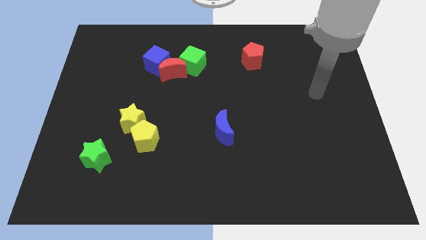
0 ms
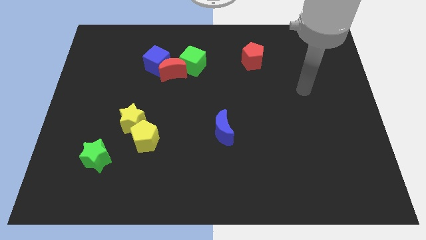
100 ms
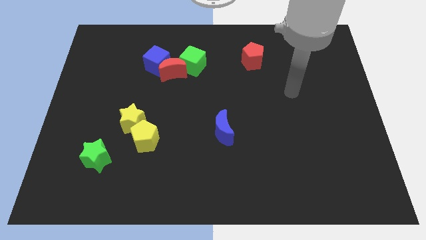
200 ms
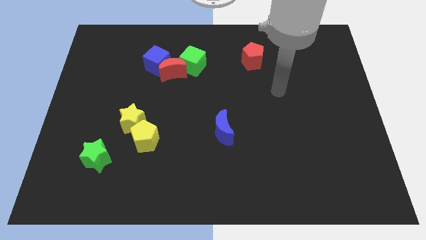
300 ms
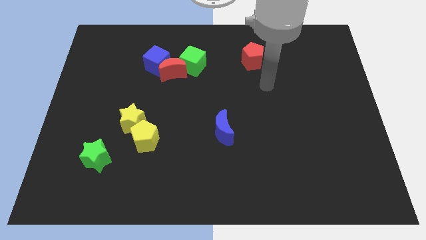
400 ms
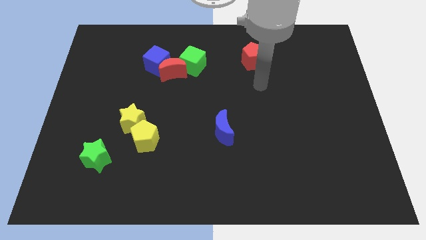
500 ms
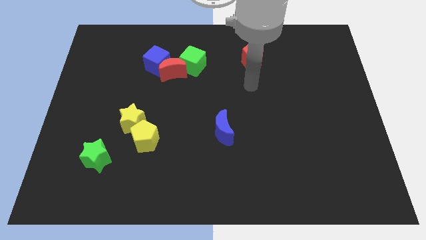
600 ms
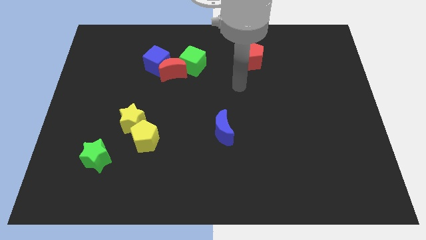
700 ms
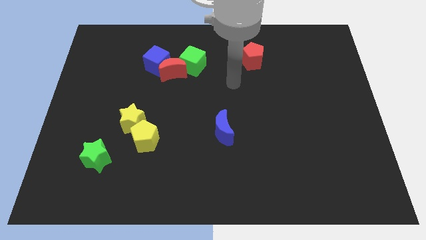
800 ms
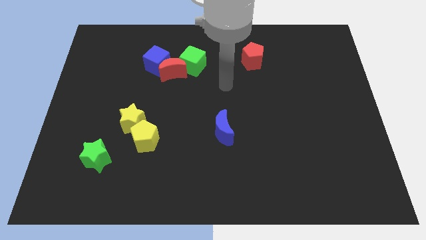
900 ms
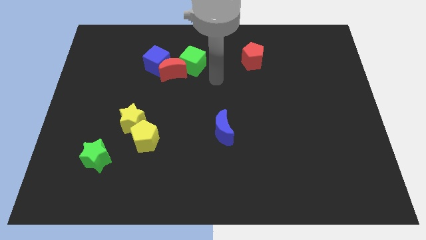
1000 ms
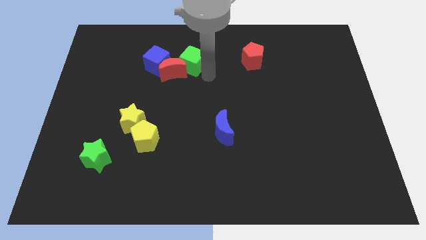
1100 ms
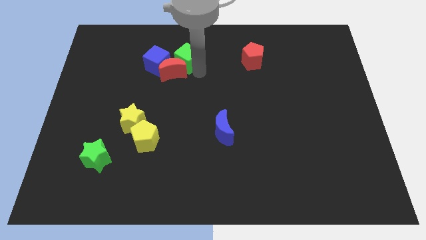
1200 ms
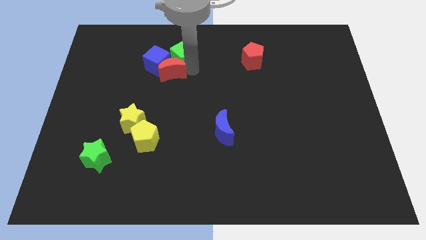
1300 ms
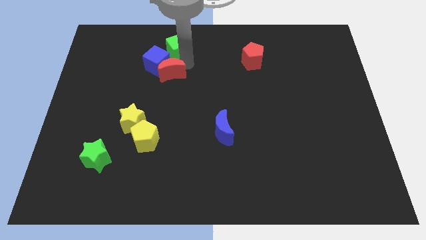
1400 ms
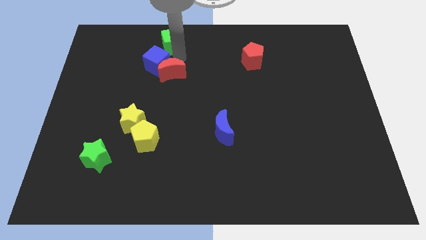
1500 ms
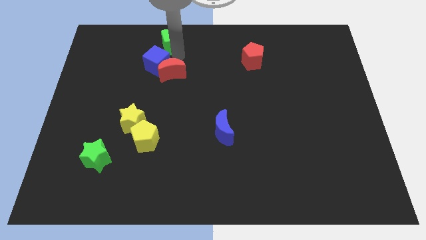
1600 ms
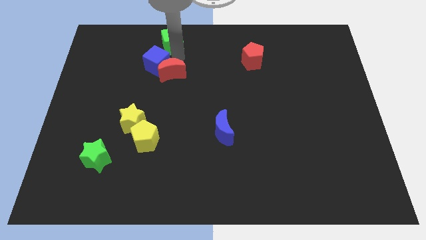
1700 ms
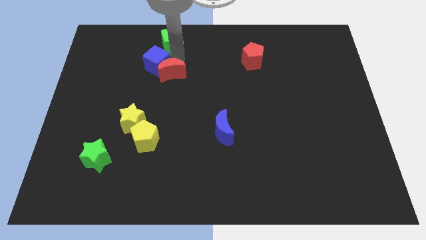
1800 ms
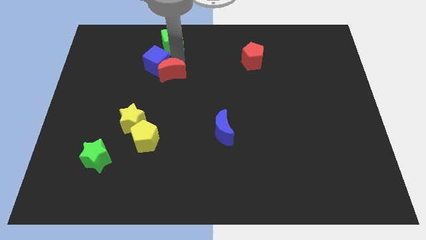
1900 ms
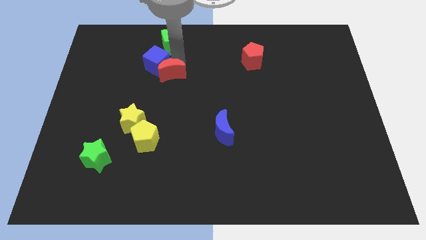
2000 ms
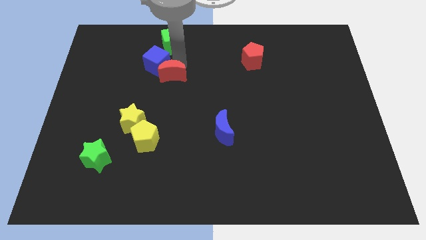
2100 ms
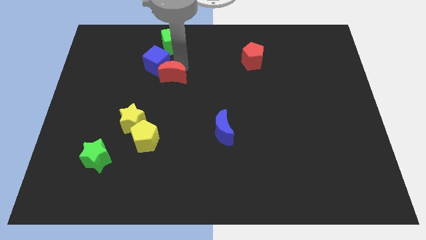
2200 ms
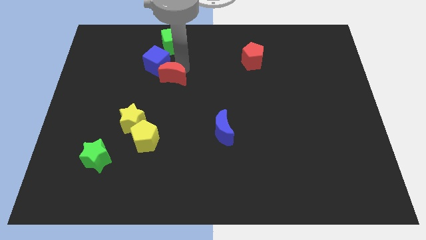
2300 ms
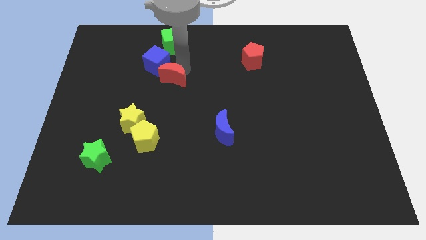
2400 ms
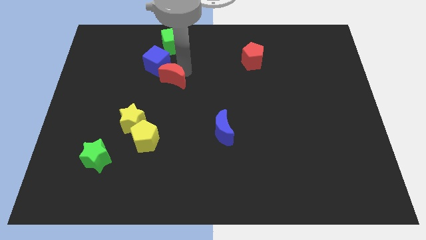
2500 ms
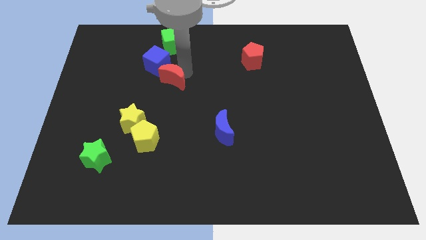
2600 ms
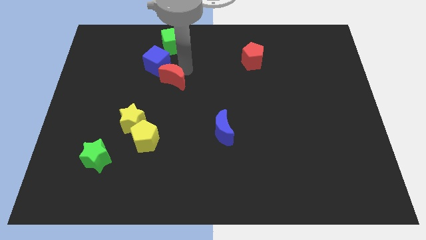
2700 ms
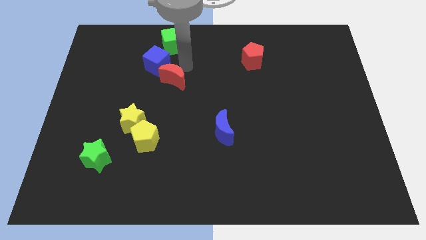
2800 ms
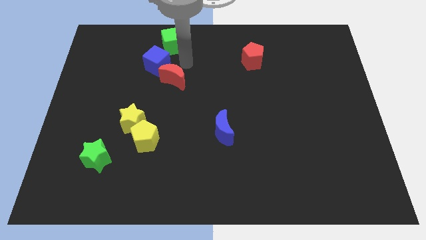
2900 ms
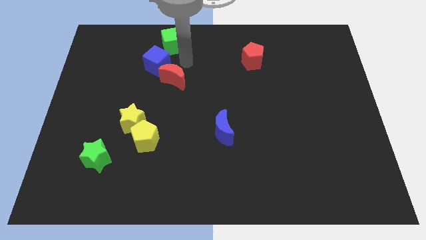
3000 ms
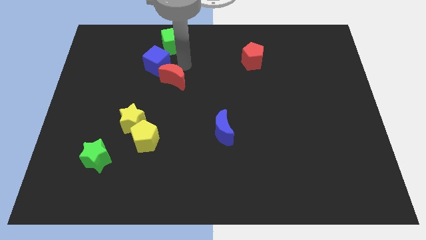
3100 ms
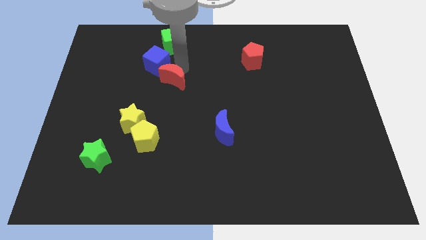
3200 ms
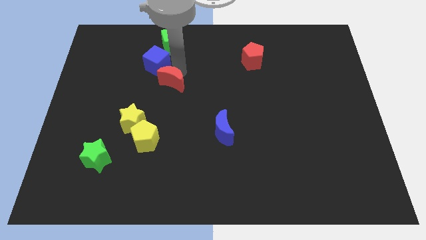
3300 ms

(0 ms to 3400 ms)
separate the red moon from the blue cube and green cube

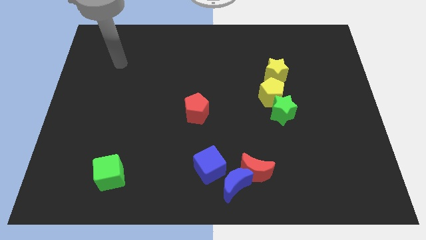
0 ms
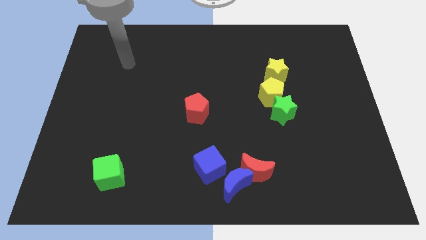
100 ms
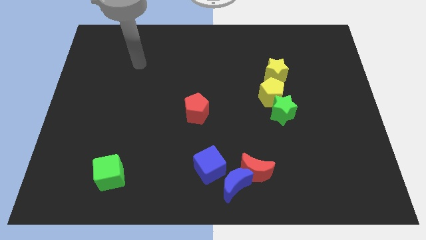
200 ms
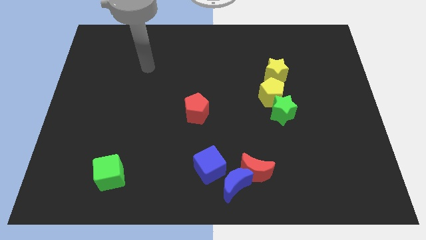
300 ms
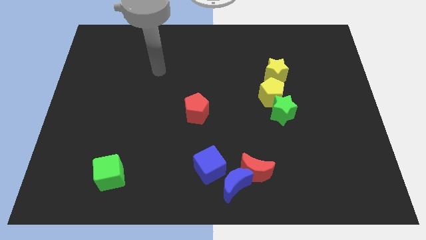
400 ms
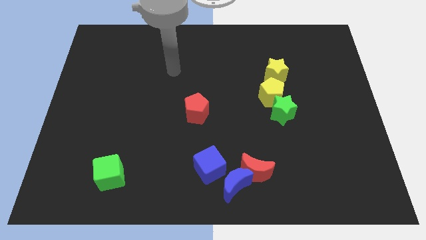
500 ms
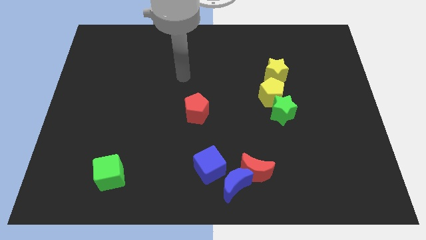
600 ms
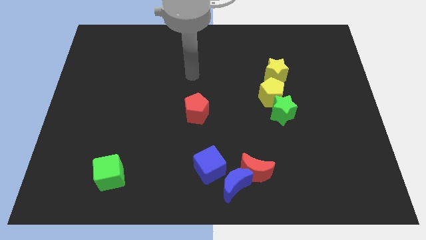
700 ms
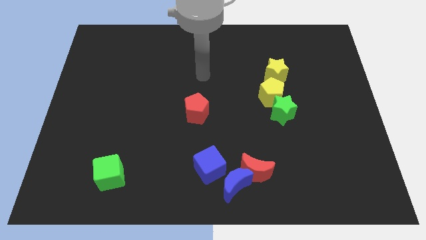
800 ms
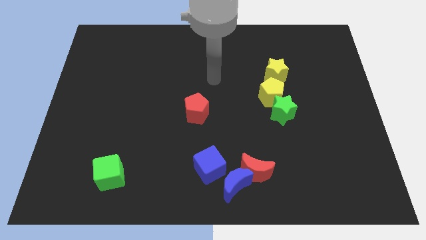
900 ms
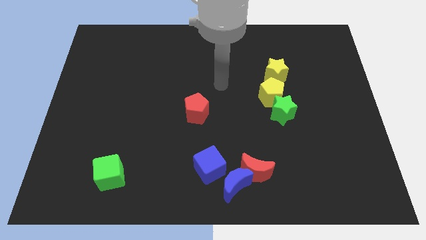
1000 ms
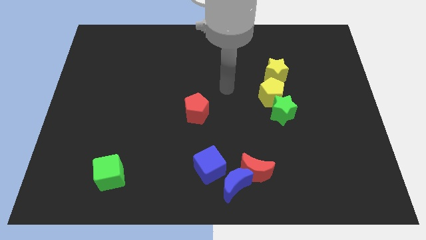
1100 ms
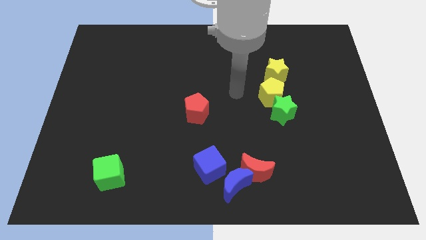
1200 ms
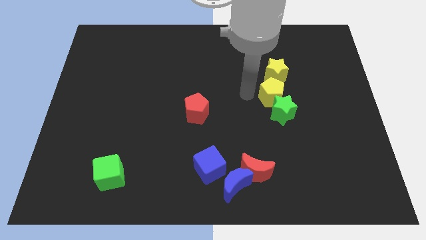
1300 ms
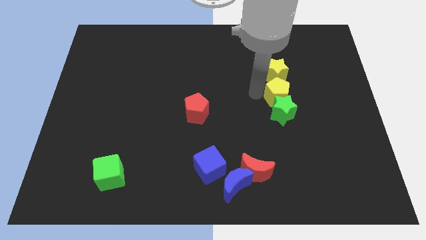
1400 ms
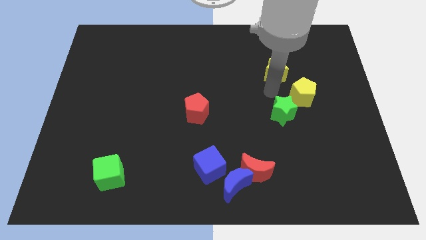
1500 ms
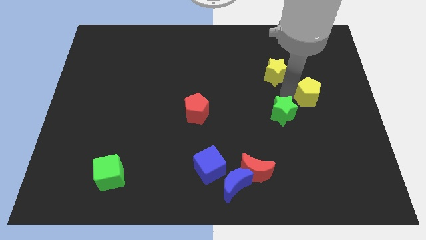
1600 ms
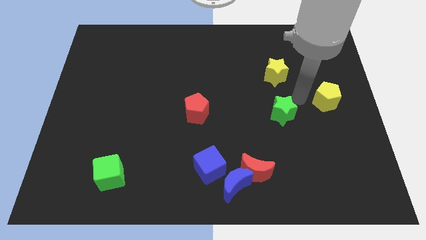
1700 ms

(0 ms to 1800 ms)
move the green star away from the yellow pentagon

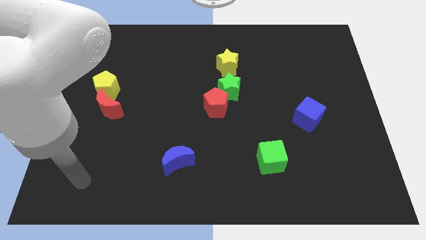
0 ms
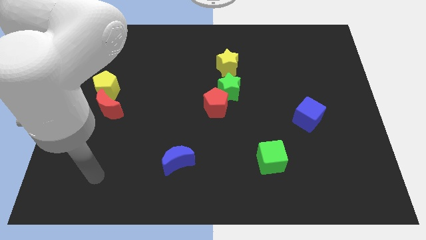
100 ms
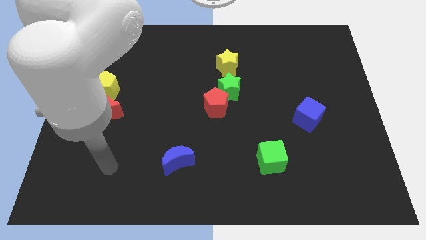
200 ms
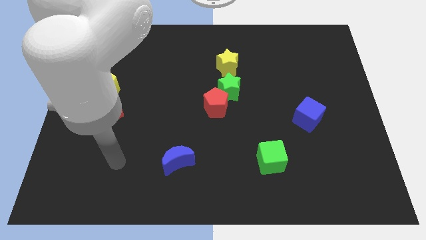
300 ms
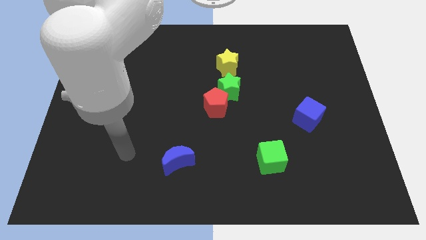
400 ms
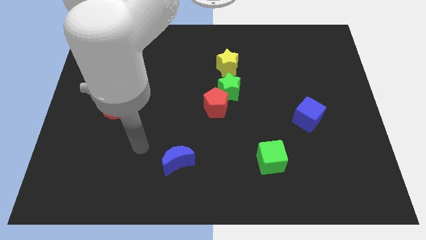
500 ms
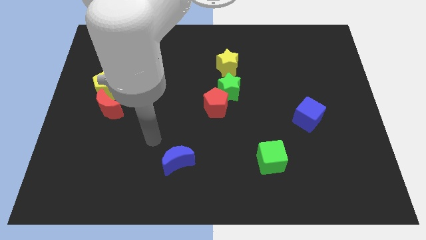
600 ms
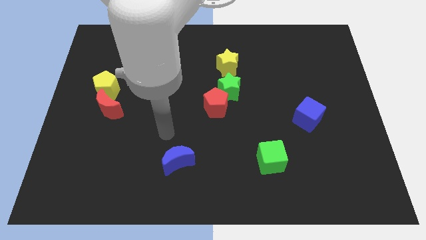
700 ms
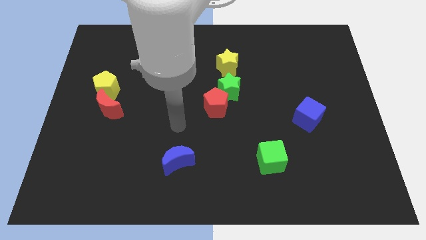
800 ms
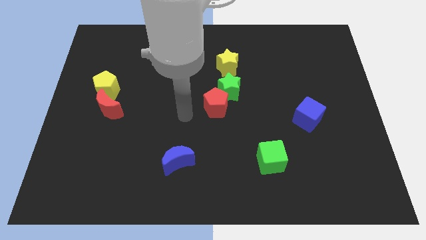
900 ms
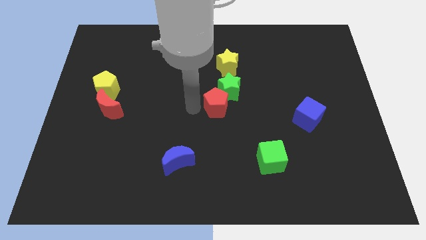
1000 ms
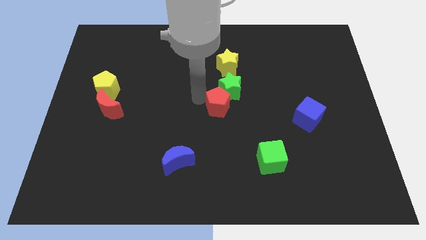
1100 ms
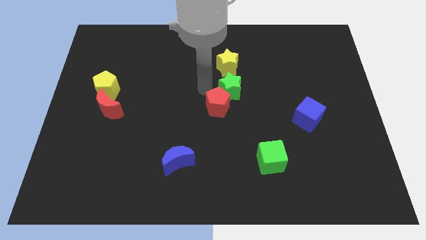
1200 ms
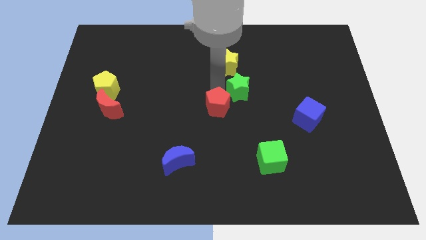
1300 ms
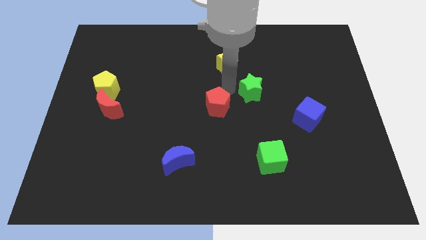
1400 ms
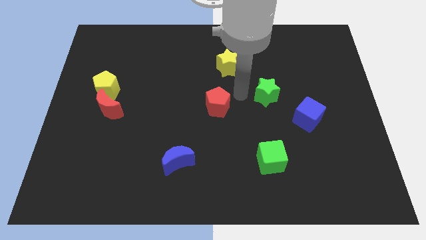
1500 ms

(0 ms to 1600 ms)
pull the red pentagon apart from the green star

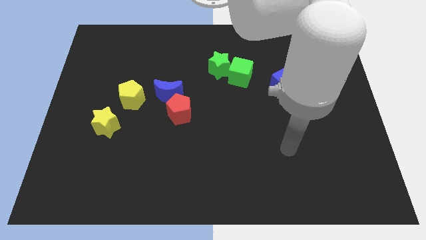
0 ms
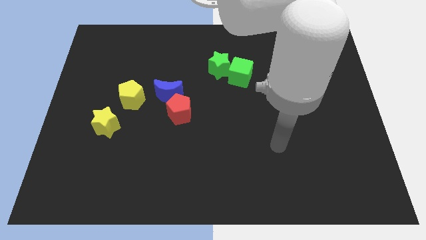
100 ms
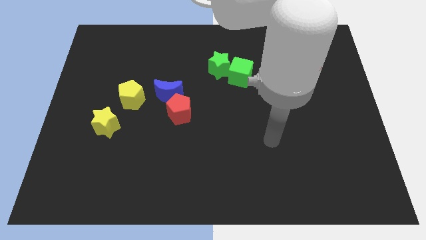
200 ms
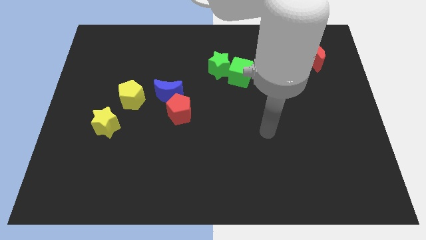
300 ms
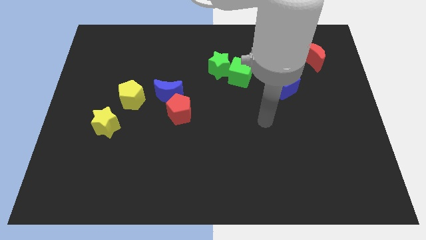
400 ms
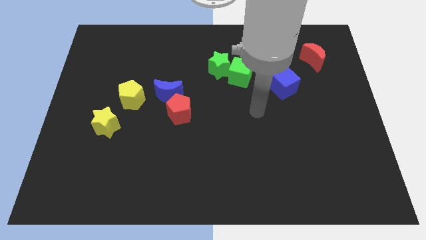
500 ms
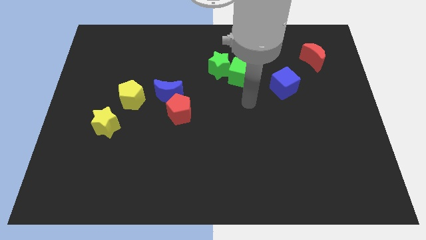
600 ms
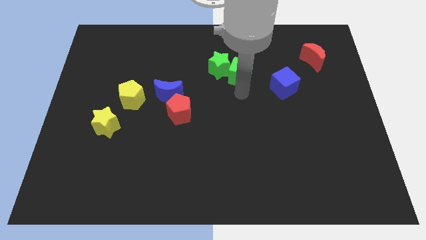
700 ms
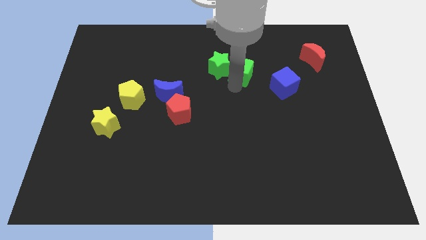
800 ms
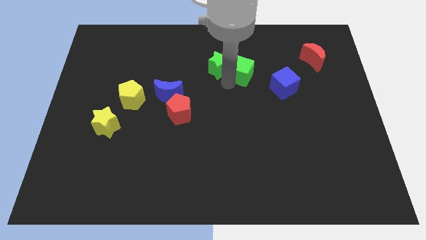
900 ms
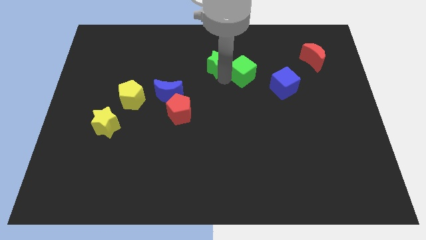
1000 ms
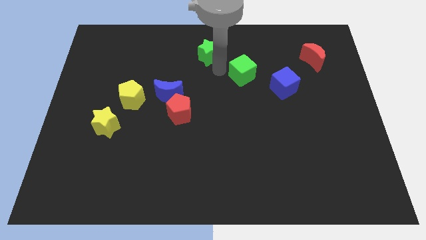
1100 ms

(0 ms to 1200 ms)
move the green cube away from the green star

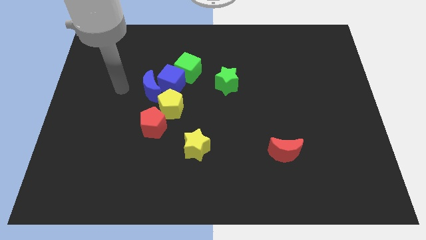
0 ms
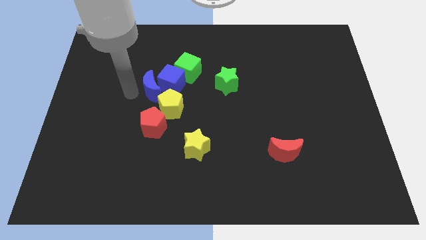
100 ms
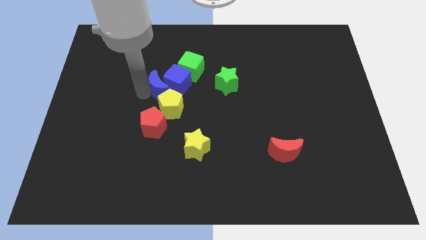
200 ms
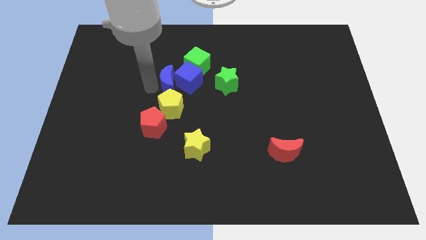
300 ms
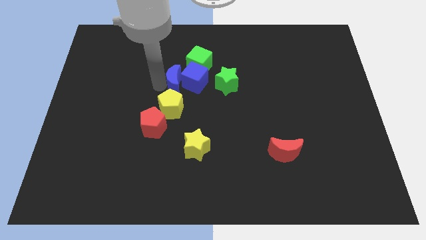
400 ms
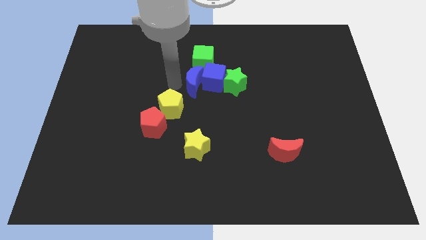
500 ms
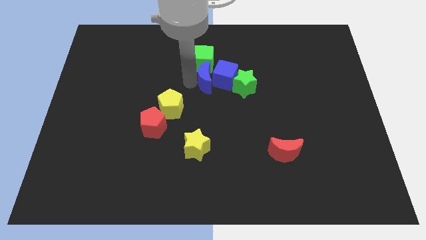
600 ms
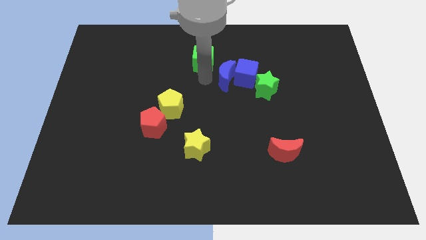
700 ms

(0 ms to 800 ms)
move the green cube away from the blue cube

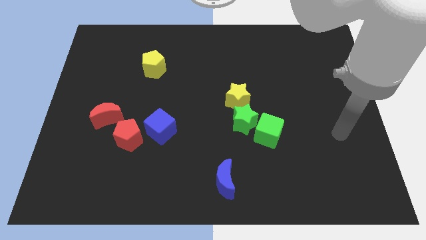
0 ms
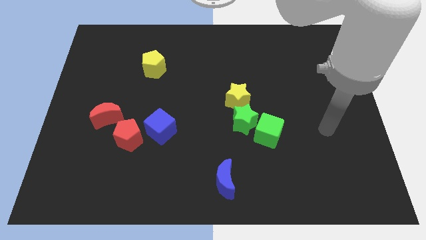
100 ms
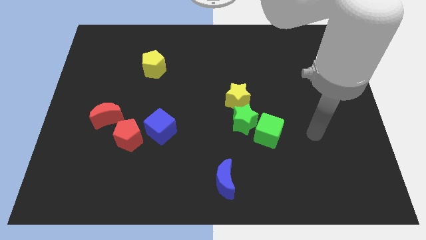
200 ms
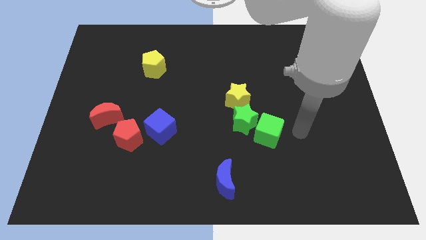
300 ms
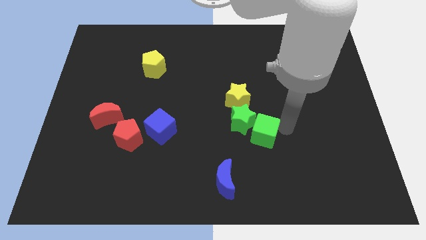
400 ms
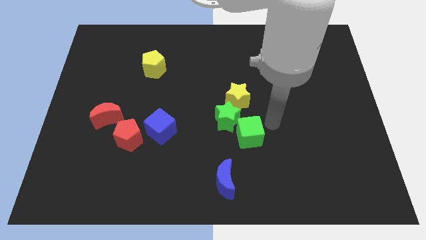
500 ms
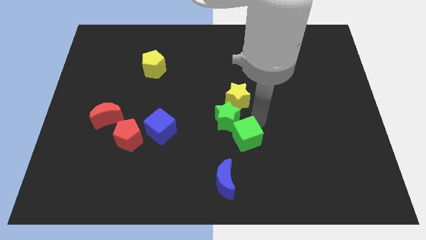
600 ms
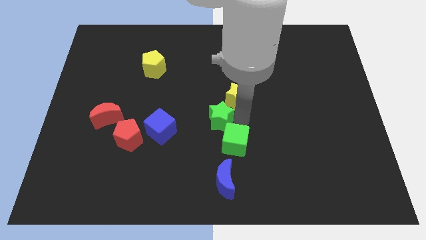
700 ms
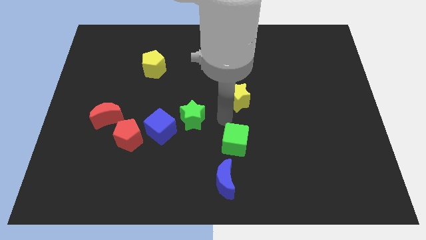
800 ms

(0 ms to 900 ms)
pull the yellow star apart from the green star
